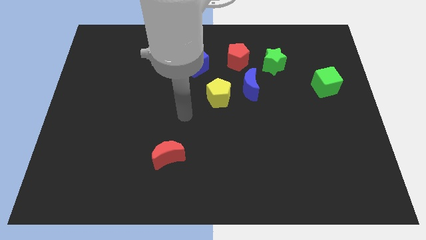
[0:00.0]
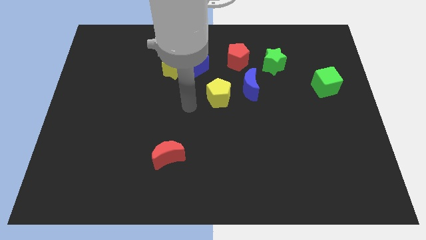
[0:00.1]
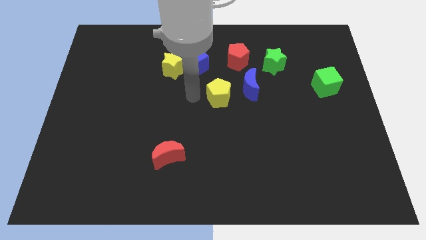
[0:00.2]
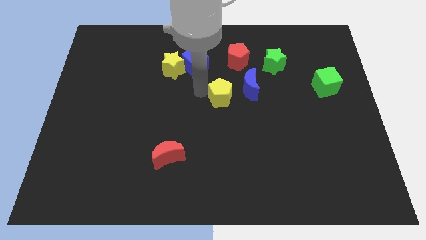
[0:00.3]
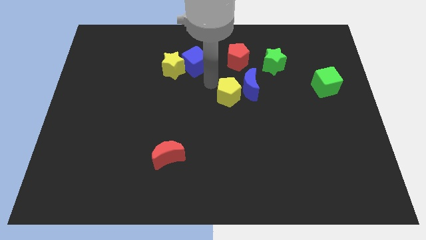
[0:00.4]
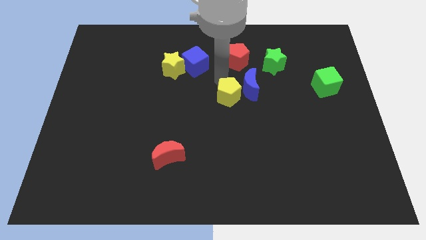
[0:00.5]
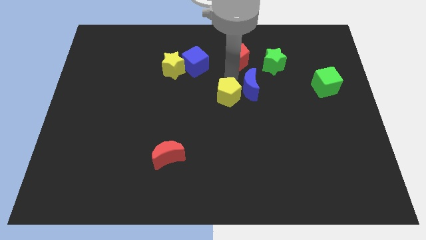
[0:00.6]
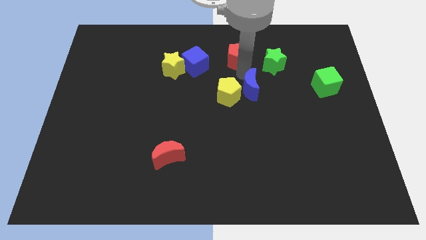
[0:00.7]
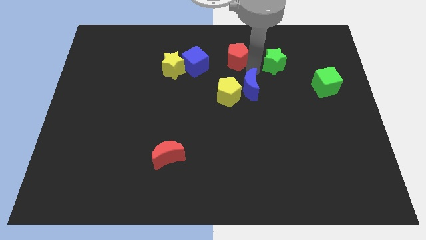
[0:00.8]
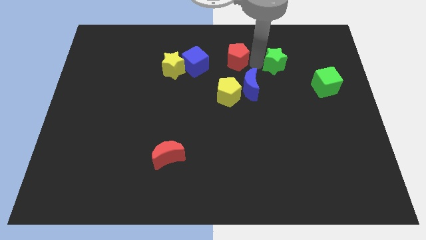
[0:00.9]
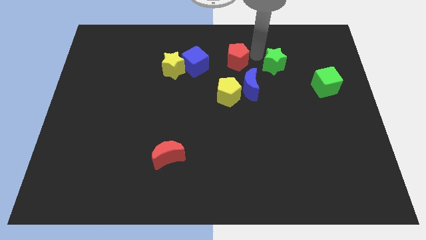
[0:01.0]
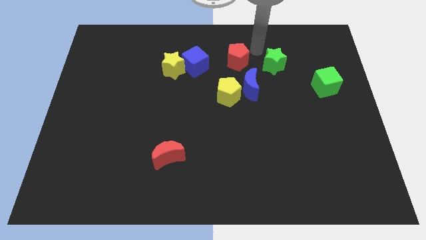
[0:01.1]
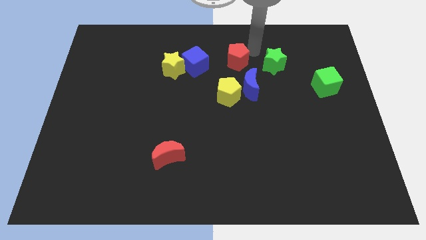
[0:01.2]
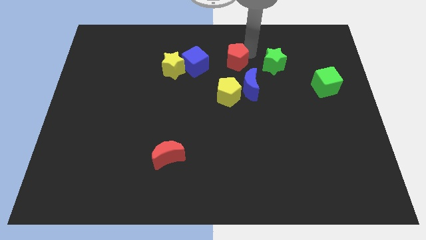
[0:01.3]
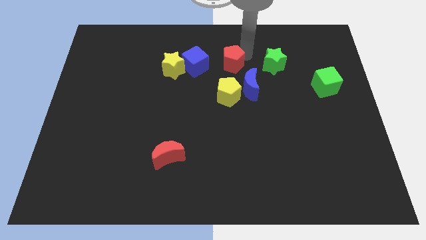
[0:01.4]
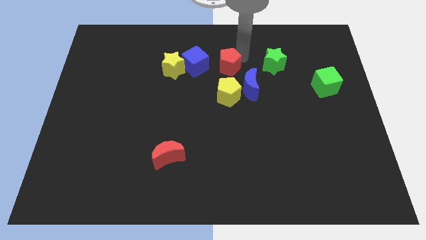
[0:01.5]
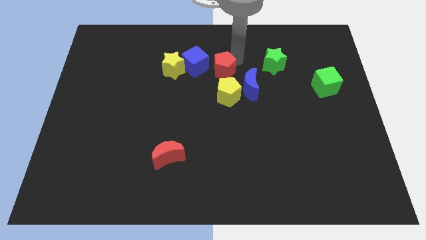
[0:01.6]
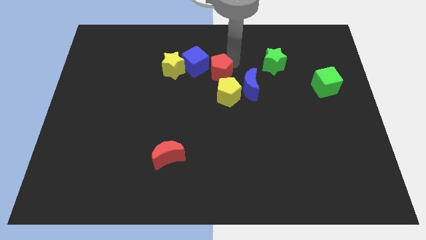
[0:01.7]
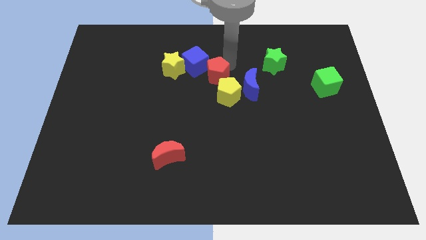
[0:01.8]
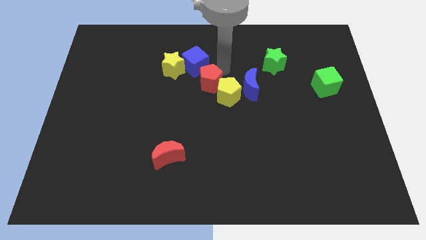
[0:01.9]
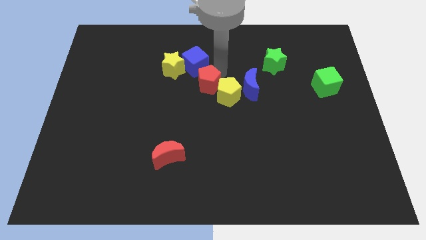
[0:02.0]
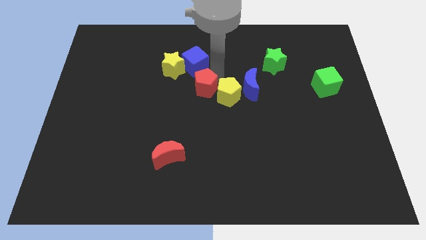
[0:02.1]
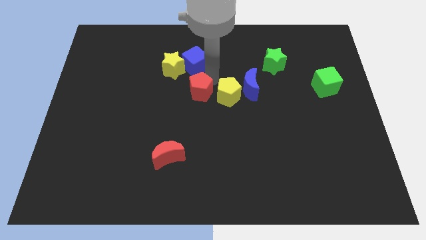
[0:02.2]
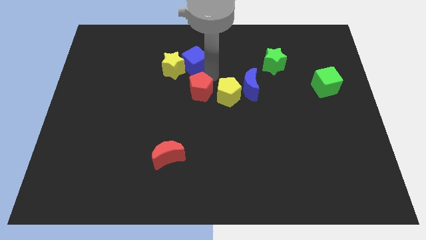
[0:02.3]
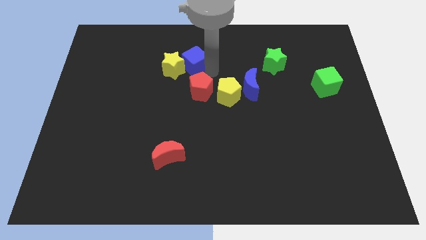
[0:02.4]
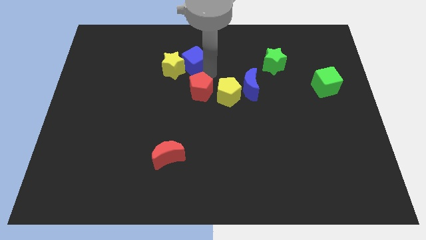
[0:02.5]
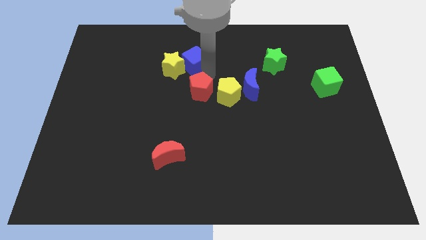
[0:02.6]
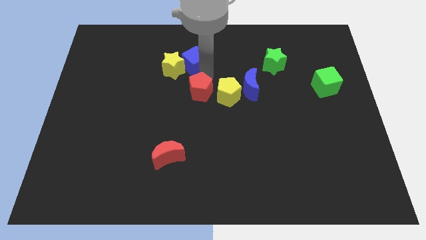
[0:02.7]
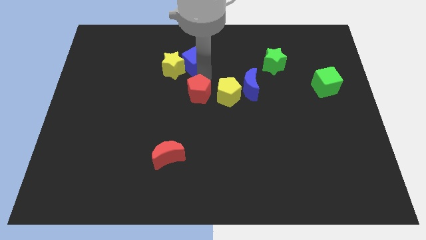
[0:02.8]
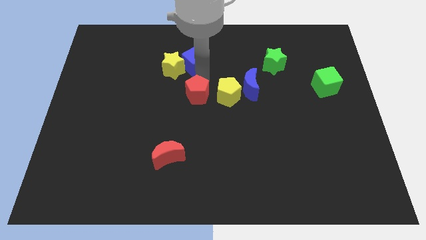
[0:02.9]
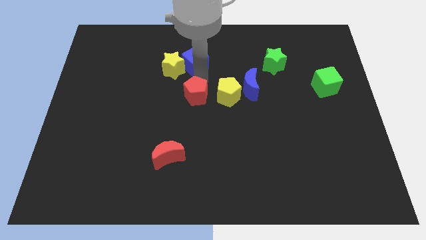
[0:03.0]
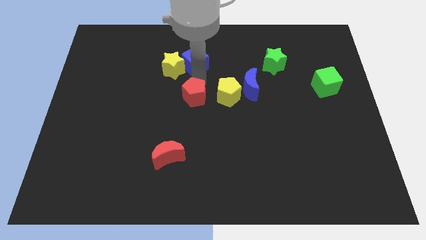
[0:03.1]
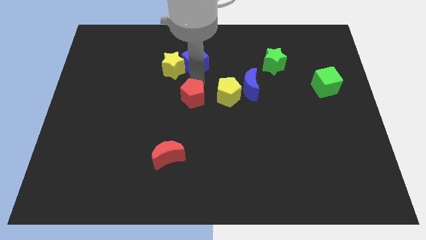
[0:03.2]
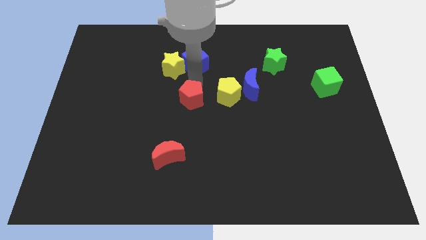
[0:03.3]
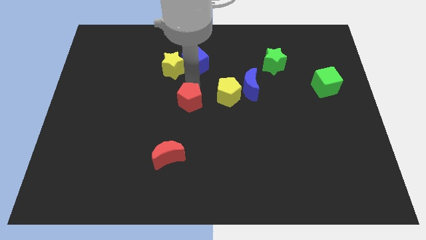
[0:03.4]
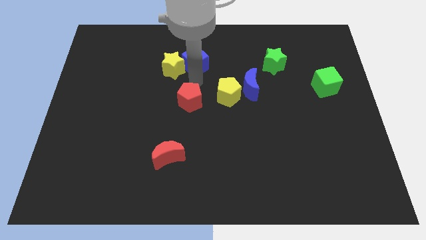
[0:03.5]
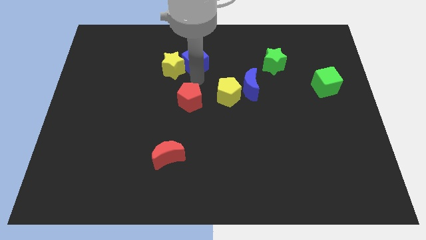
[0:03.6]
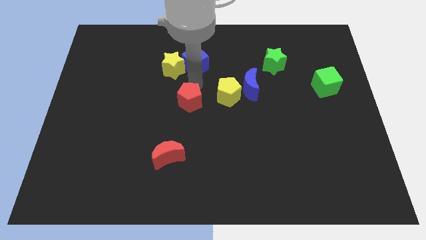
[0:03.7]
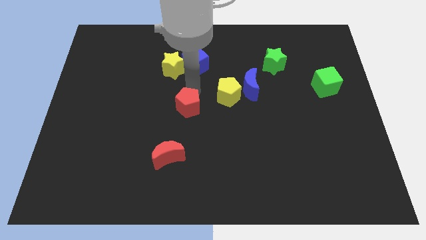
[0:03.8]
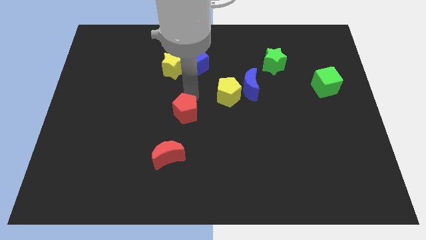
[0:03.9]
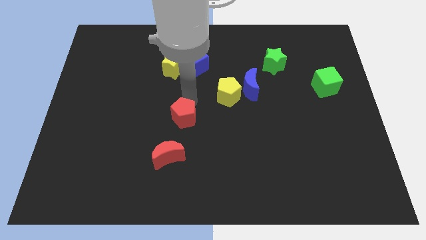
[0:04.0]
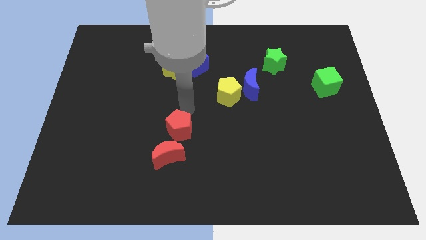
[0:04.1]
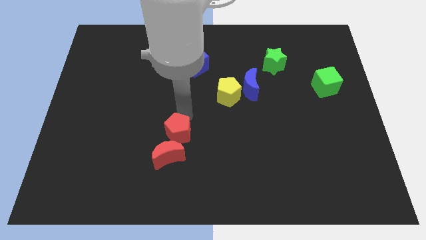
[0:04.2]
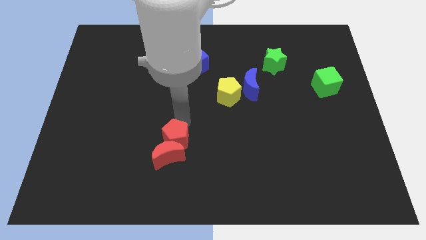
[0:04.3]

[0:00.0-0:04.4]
put the red pentagon to the red moon

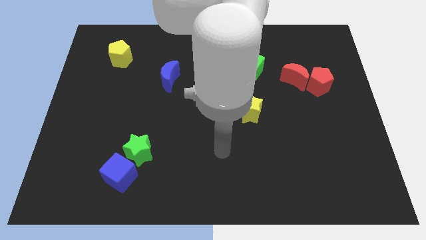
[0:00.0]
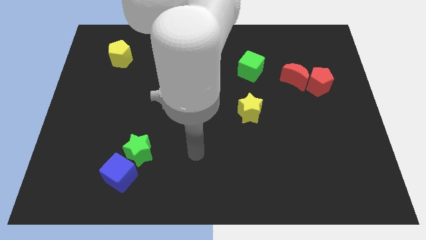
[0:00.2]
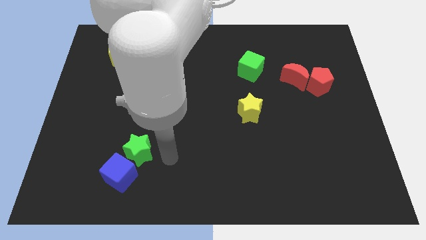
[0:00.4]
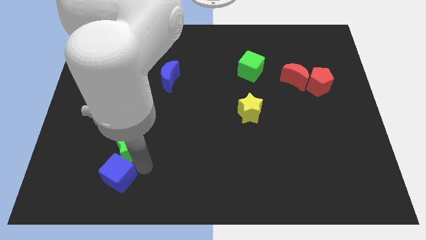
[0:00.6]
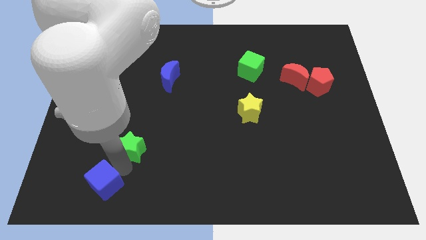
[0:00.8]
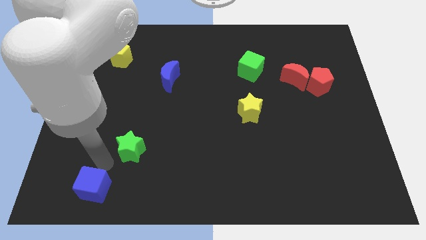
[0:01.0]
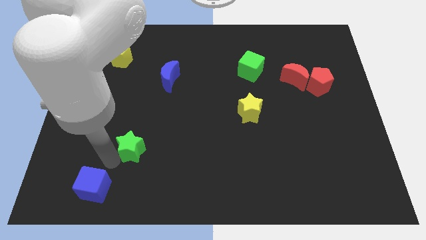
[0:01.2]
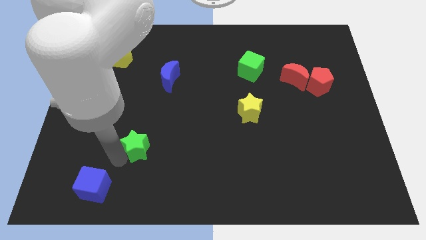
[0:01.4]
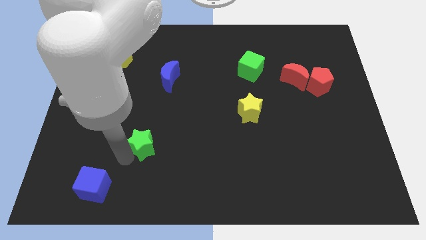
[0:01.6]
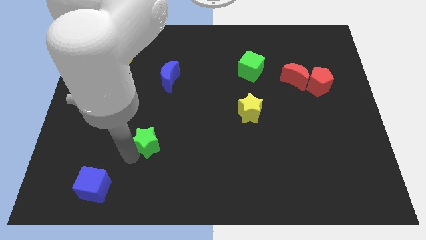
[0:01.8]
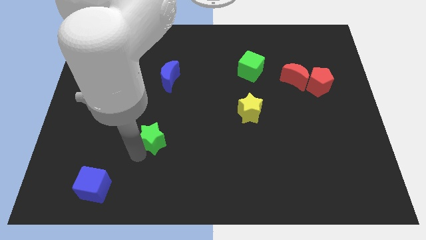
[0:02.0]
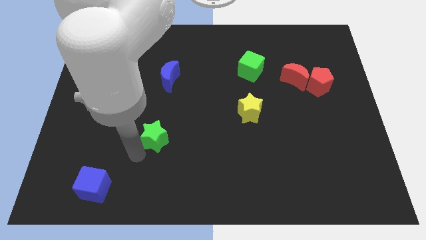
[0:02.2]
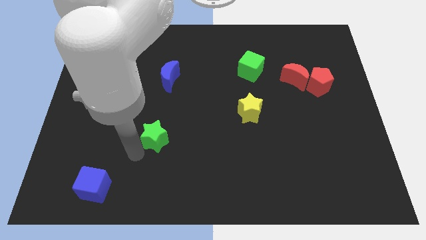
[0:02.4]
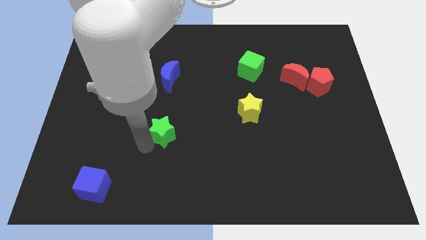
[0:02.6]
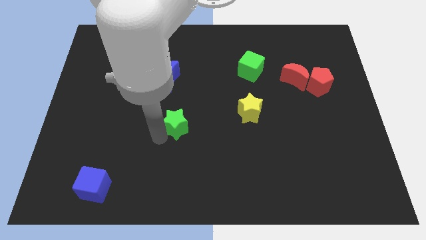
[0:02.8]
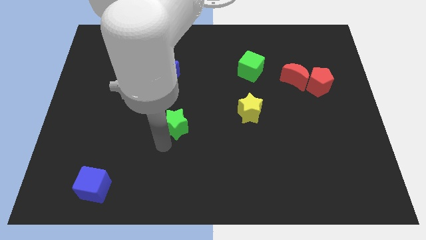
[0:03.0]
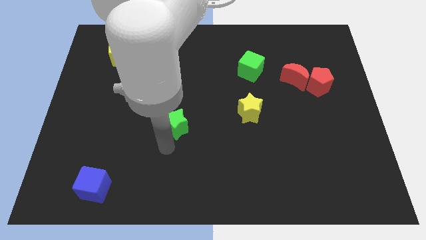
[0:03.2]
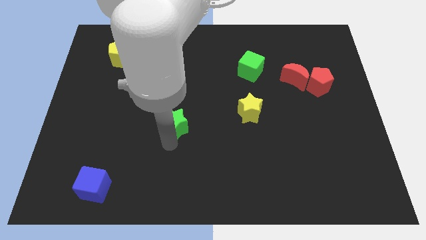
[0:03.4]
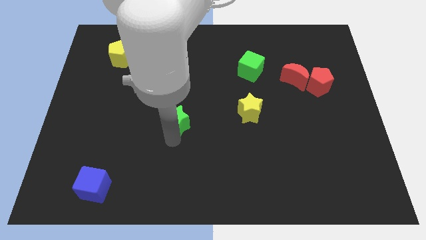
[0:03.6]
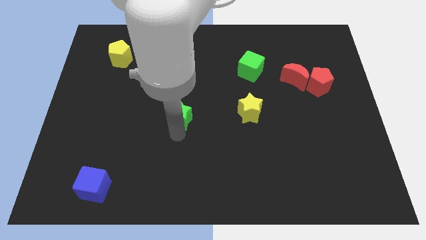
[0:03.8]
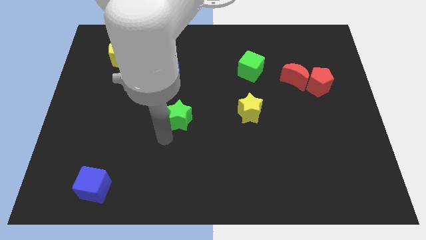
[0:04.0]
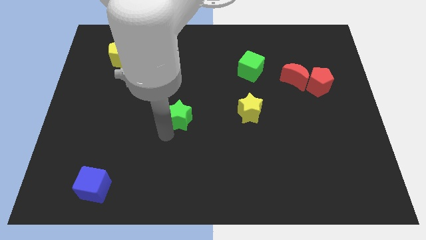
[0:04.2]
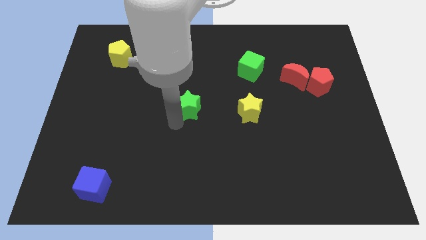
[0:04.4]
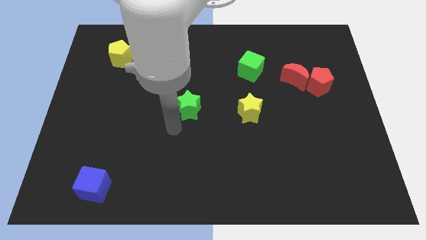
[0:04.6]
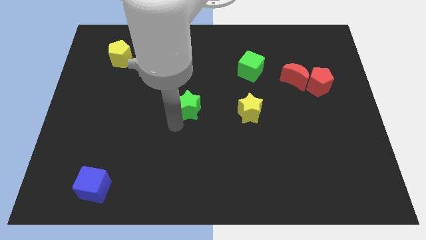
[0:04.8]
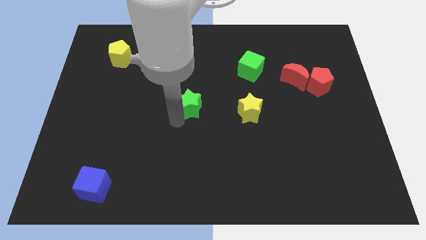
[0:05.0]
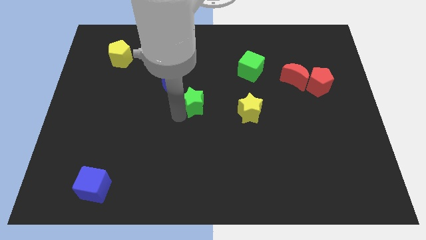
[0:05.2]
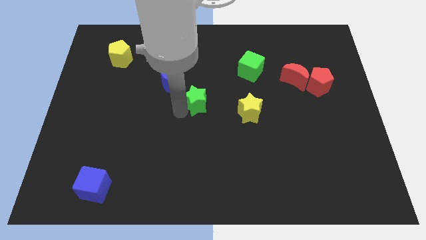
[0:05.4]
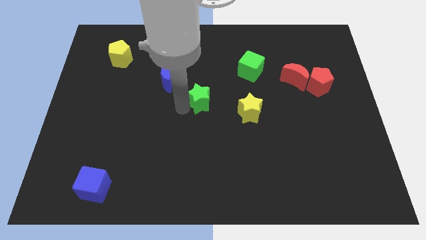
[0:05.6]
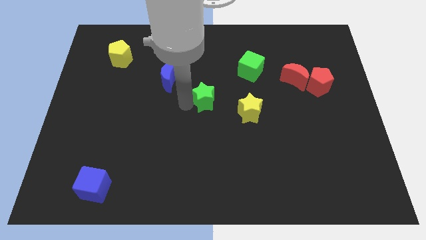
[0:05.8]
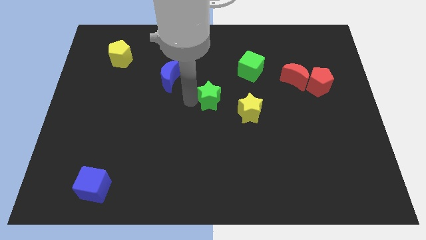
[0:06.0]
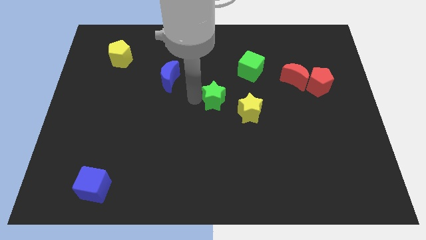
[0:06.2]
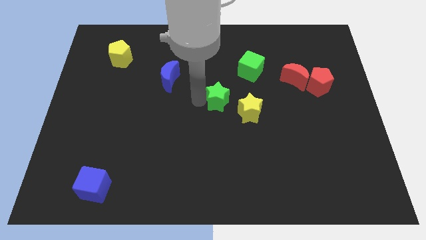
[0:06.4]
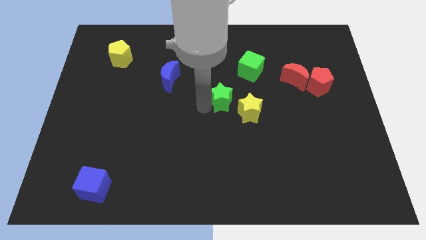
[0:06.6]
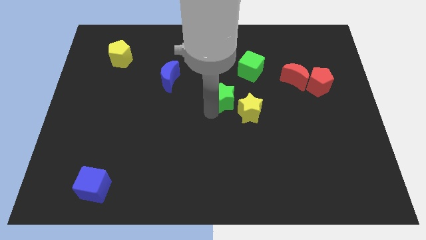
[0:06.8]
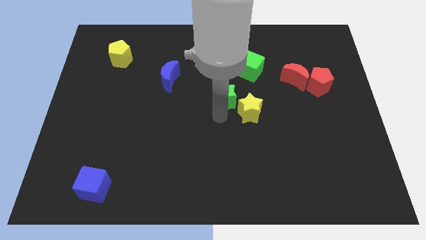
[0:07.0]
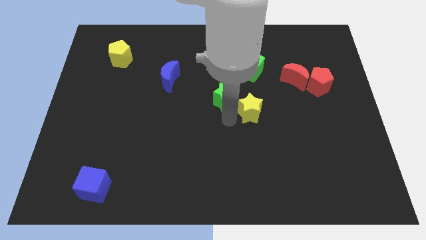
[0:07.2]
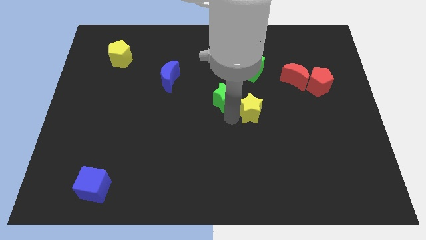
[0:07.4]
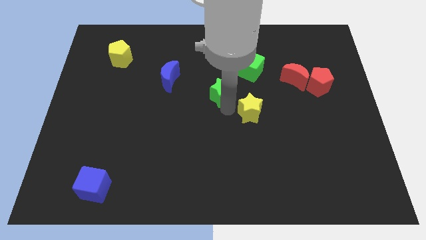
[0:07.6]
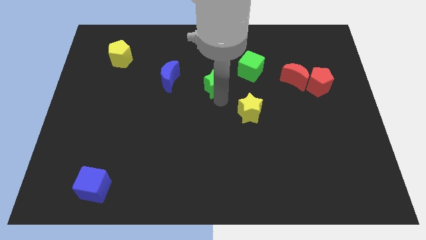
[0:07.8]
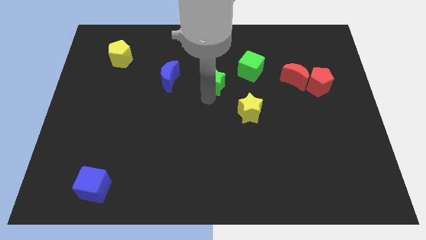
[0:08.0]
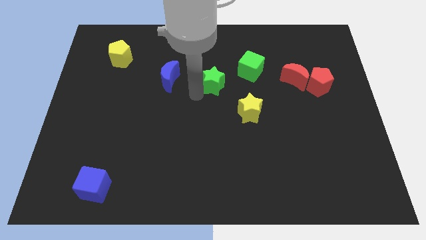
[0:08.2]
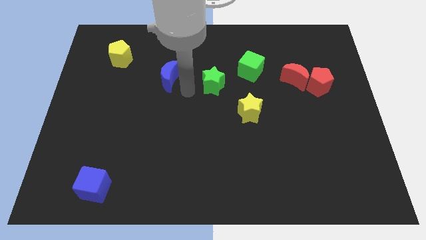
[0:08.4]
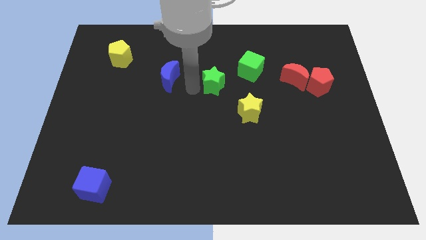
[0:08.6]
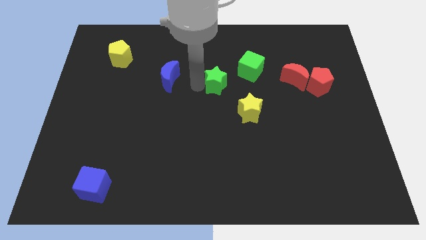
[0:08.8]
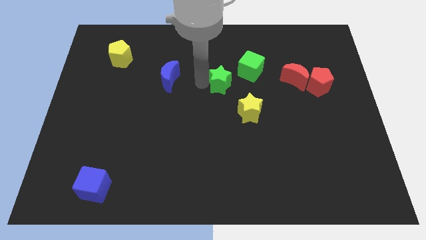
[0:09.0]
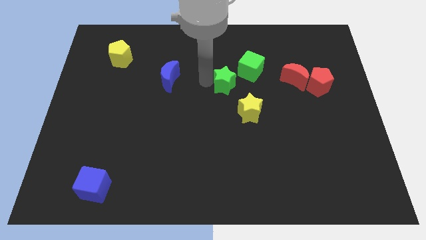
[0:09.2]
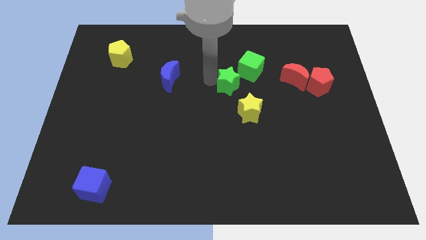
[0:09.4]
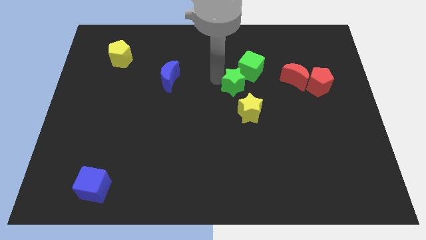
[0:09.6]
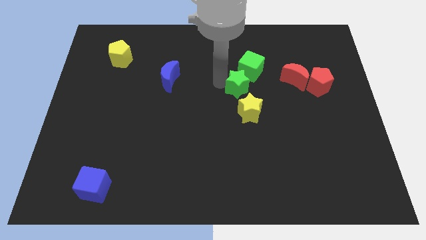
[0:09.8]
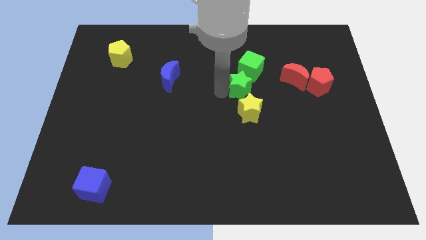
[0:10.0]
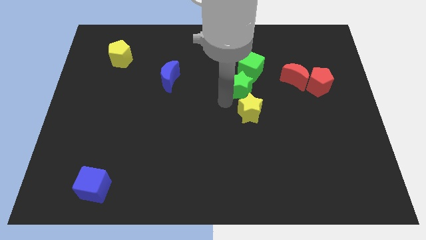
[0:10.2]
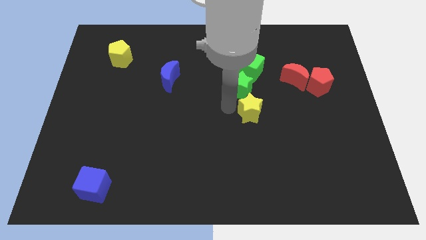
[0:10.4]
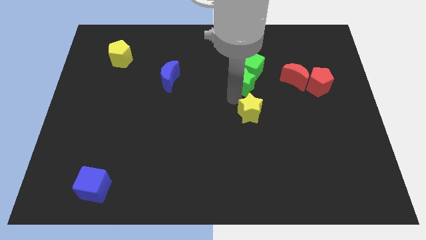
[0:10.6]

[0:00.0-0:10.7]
put the green star next to the green cube
